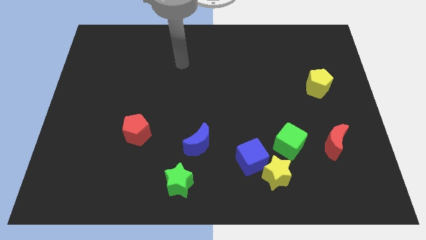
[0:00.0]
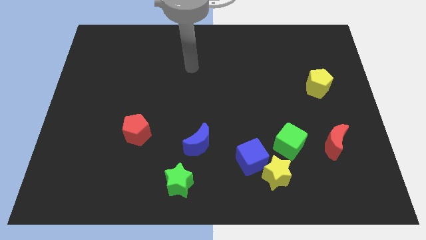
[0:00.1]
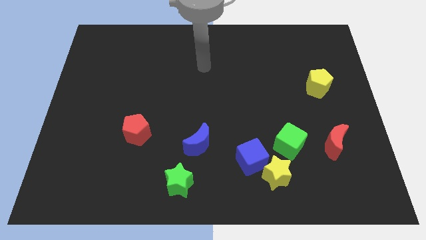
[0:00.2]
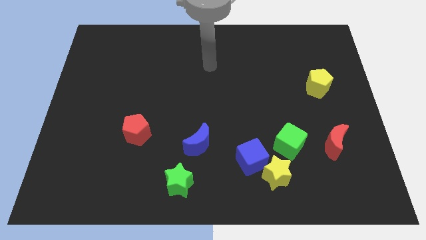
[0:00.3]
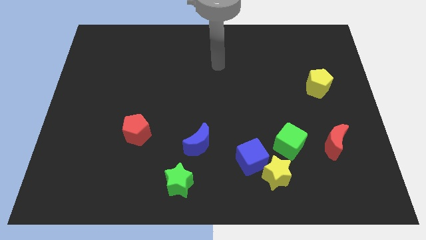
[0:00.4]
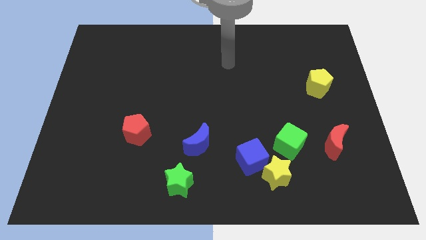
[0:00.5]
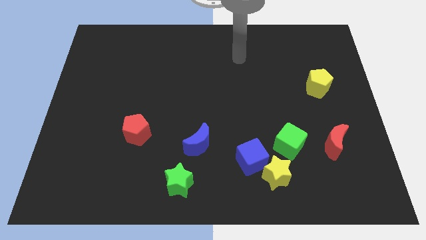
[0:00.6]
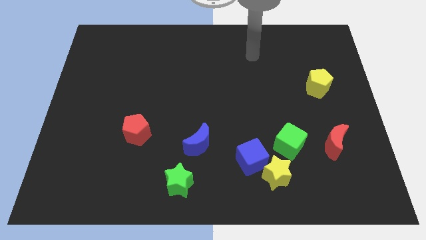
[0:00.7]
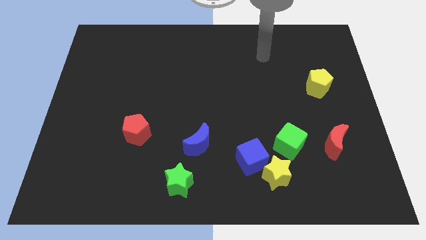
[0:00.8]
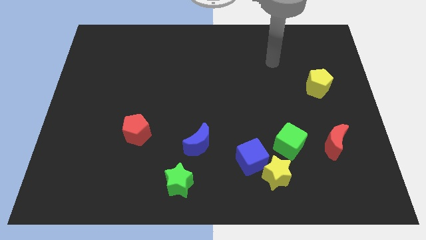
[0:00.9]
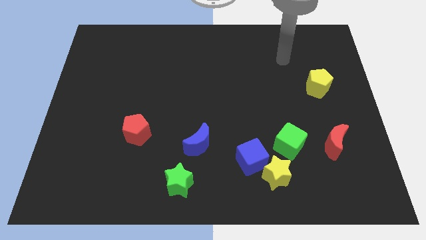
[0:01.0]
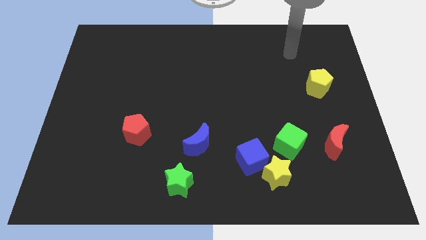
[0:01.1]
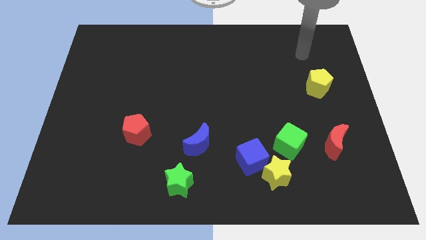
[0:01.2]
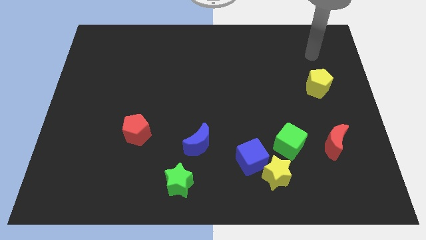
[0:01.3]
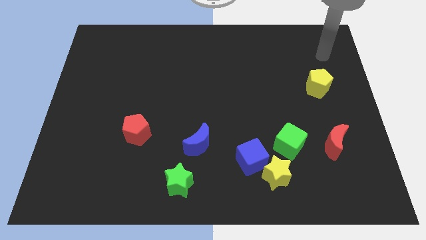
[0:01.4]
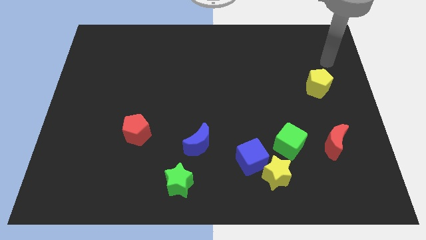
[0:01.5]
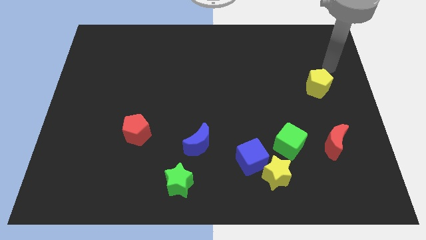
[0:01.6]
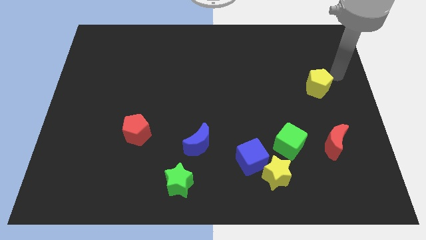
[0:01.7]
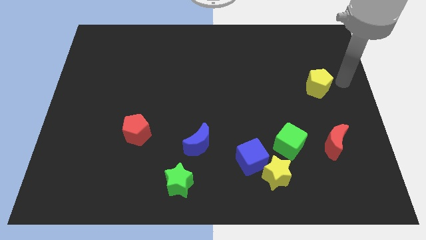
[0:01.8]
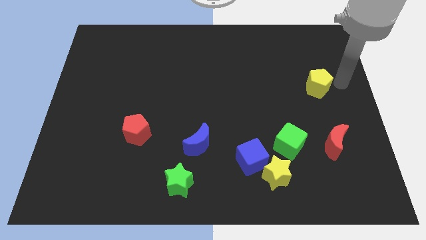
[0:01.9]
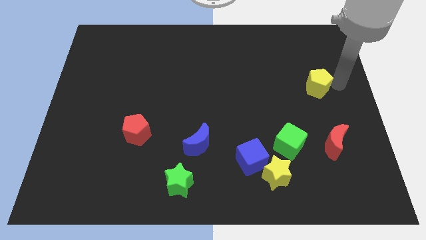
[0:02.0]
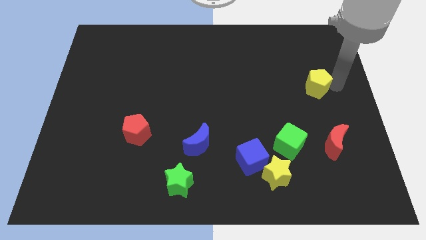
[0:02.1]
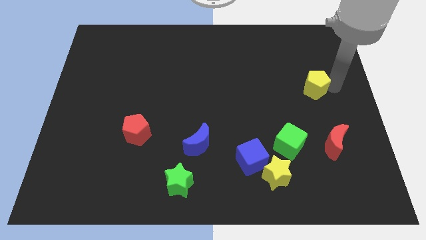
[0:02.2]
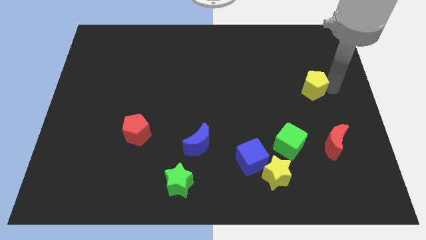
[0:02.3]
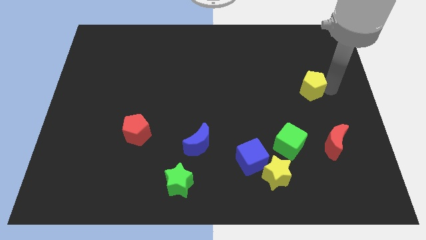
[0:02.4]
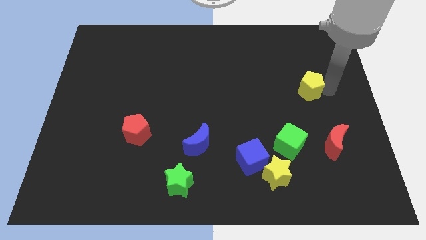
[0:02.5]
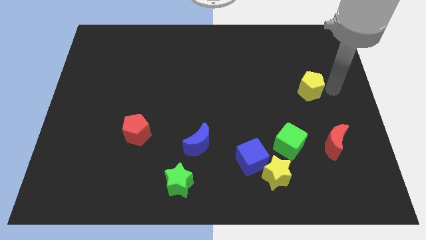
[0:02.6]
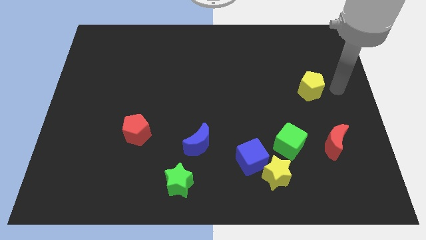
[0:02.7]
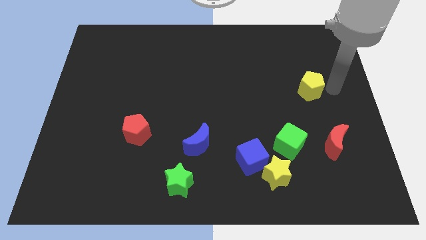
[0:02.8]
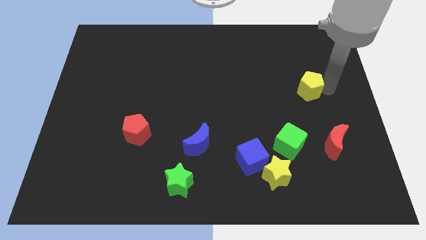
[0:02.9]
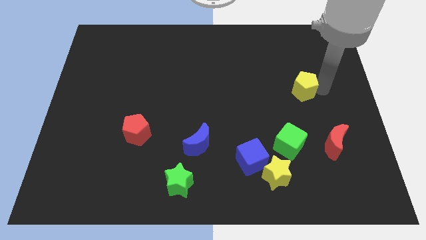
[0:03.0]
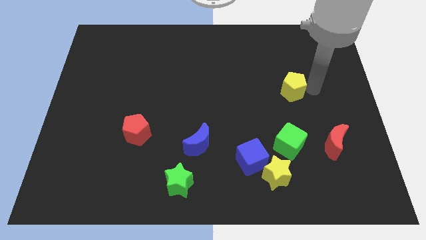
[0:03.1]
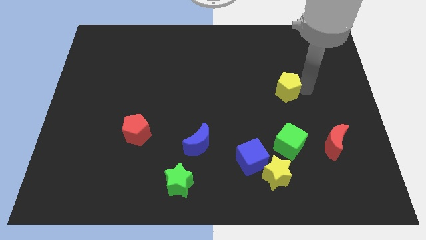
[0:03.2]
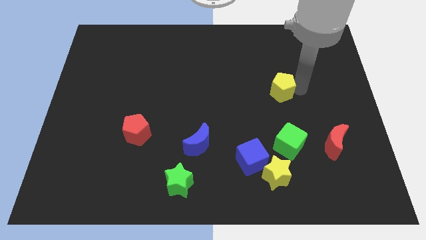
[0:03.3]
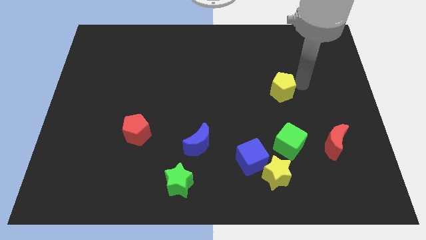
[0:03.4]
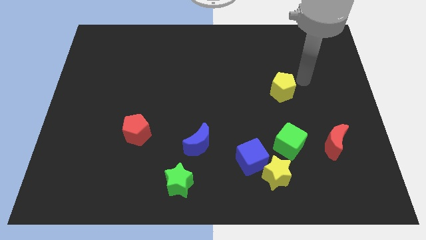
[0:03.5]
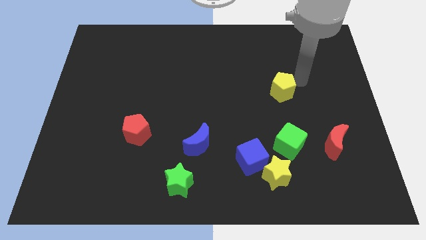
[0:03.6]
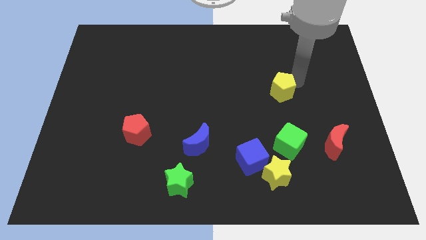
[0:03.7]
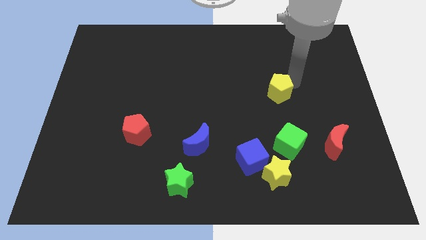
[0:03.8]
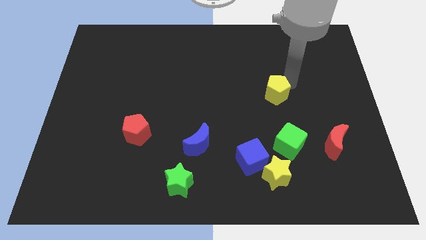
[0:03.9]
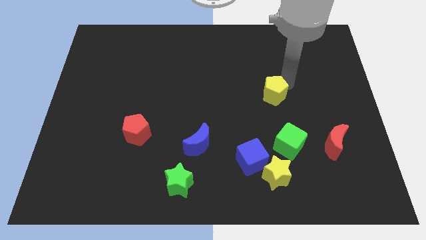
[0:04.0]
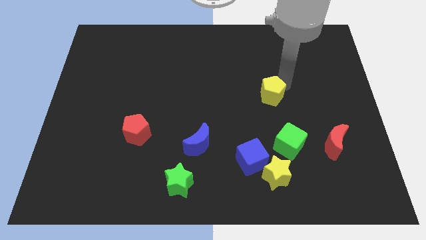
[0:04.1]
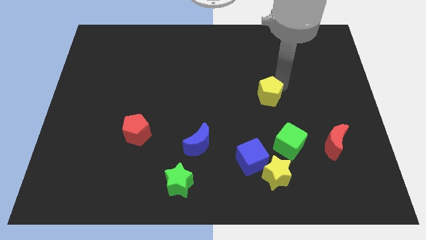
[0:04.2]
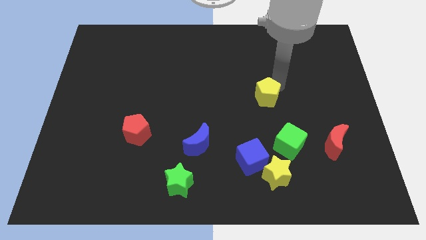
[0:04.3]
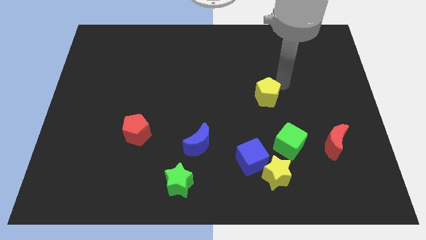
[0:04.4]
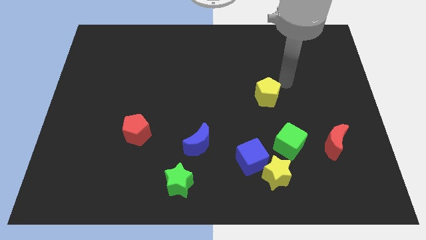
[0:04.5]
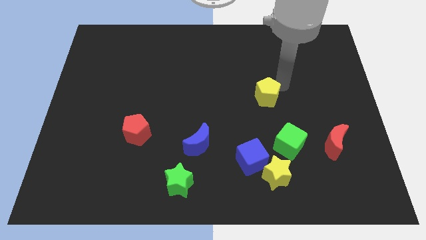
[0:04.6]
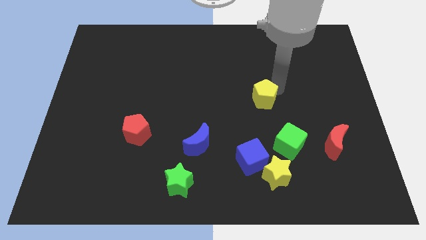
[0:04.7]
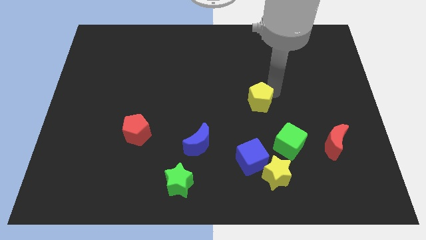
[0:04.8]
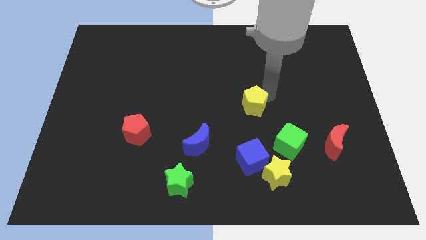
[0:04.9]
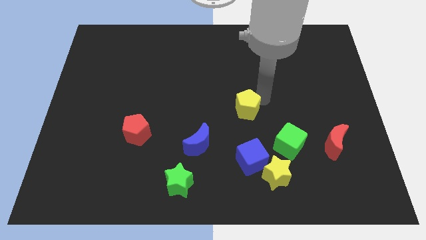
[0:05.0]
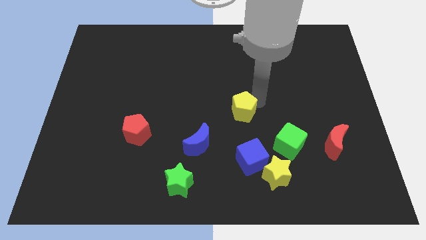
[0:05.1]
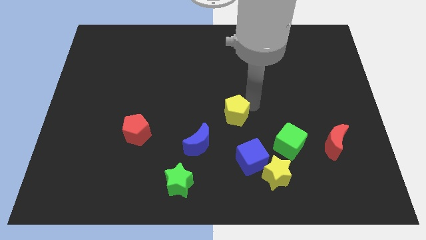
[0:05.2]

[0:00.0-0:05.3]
push the yellow pentagon to the top right of the blue moon

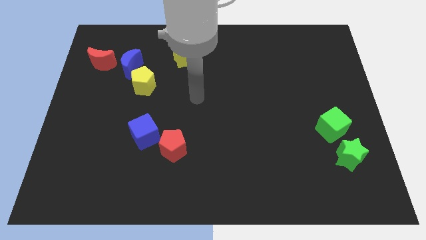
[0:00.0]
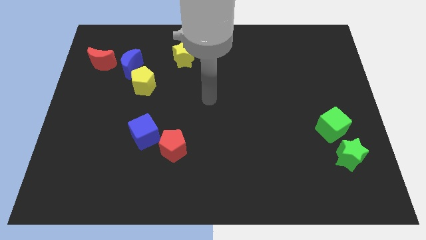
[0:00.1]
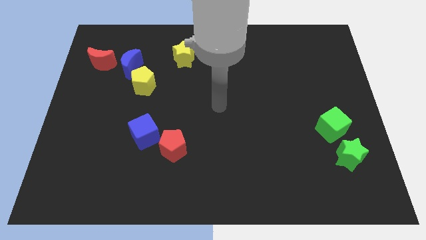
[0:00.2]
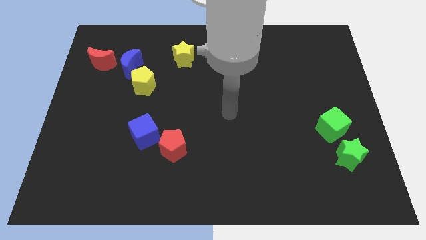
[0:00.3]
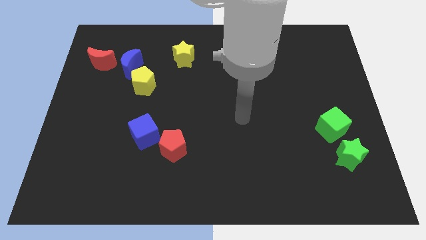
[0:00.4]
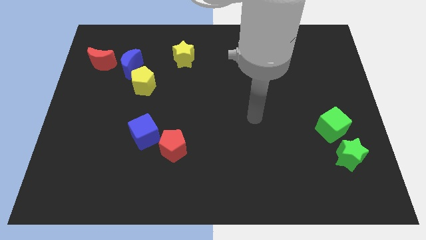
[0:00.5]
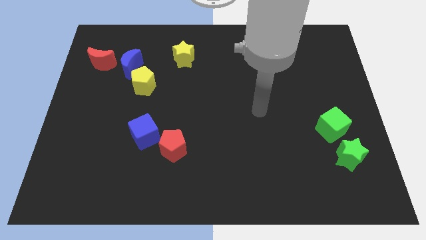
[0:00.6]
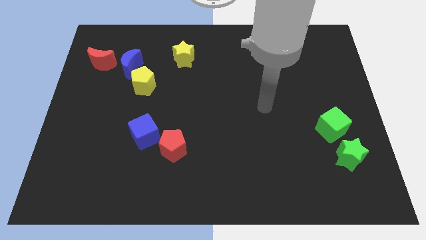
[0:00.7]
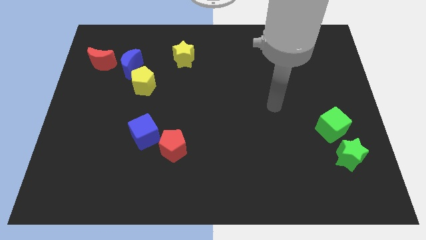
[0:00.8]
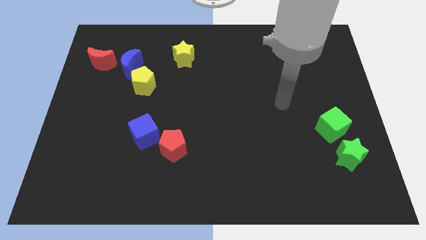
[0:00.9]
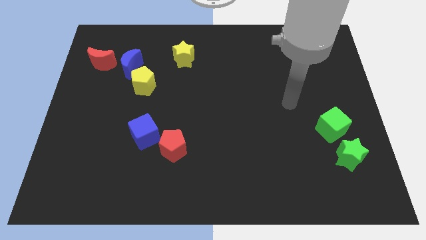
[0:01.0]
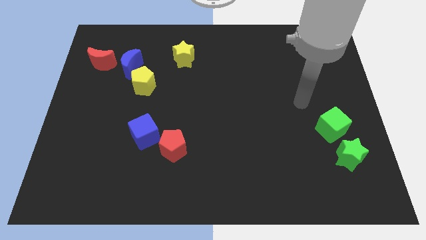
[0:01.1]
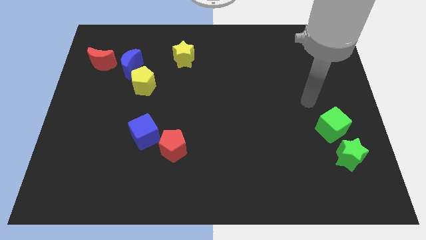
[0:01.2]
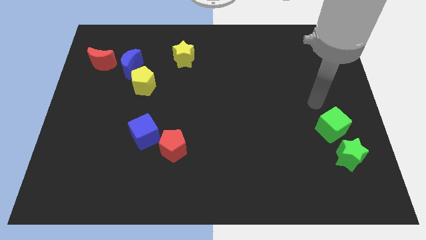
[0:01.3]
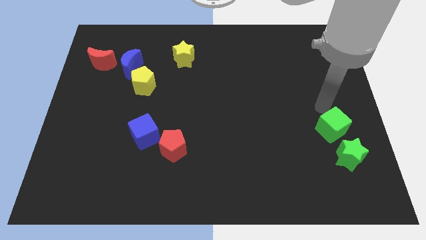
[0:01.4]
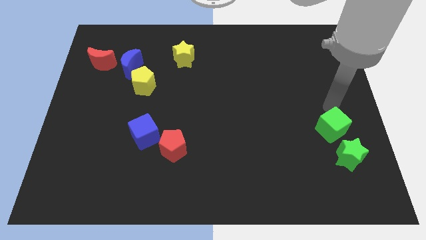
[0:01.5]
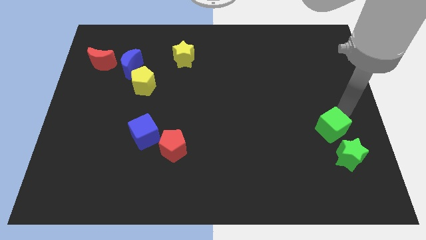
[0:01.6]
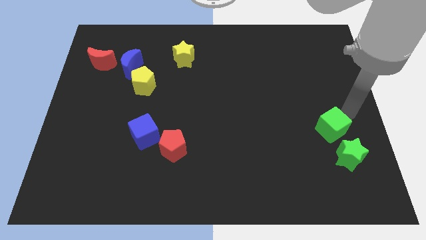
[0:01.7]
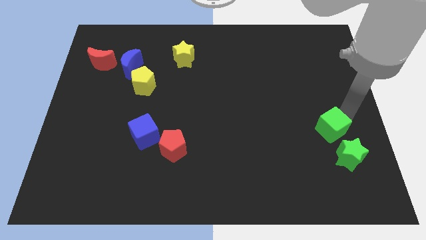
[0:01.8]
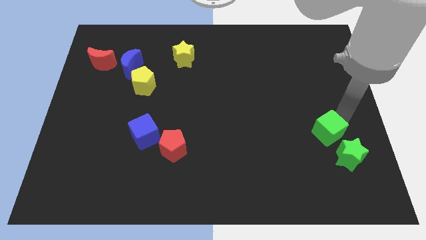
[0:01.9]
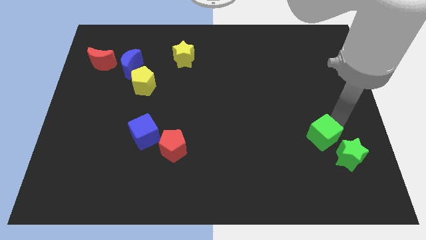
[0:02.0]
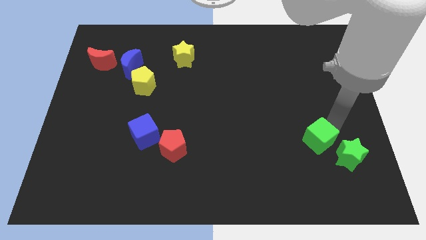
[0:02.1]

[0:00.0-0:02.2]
put the green cube left of the green star
